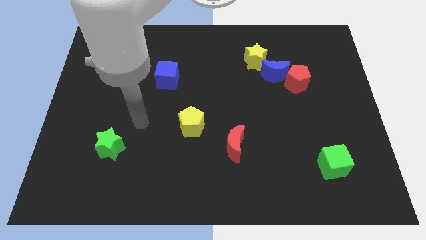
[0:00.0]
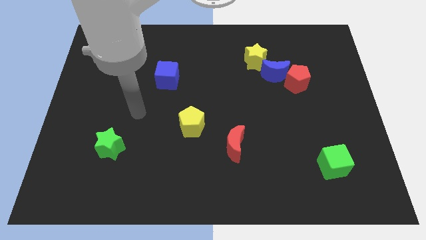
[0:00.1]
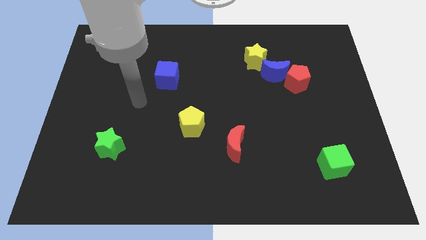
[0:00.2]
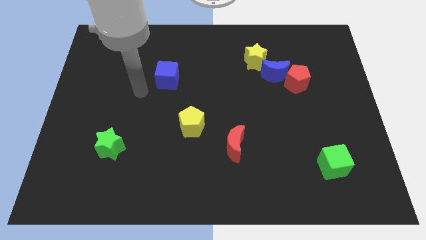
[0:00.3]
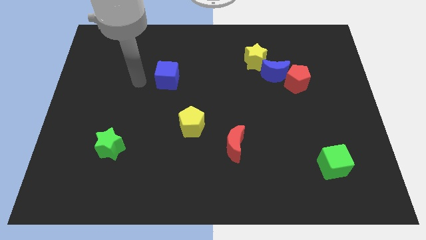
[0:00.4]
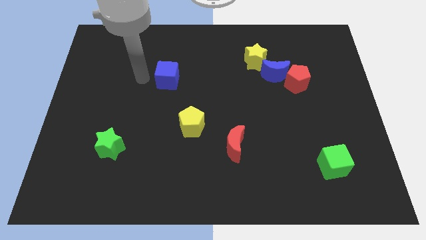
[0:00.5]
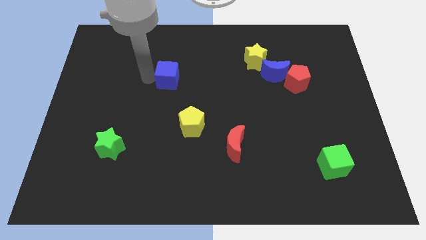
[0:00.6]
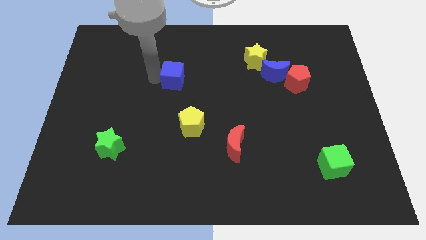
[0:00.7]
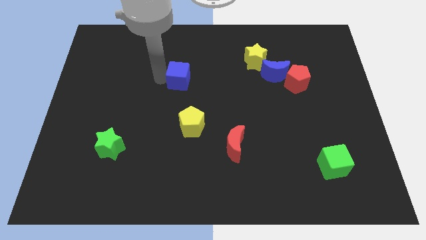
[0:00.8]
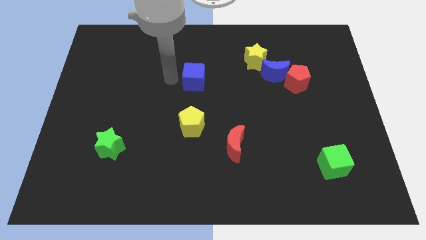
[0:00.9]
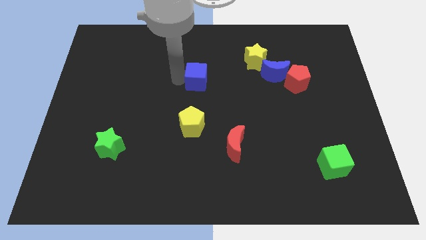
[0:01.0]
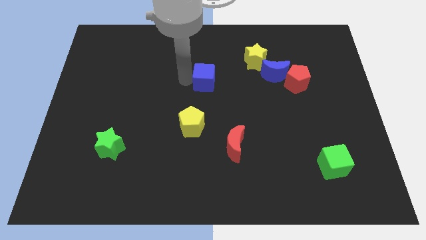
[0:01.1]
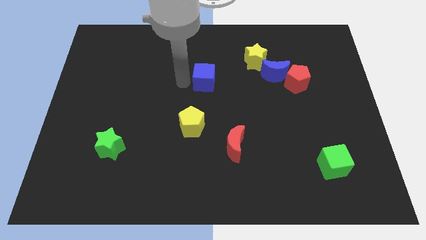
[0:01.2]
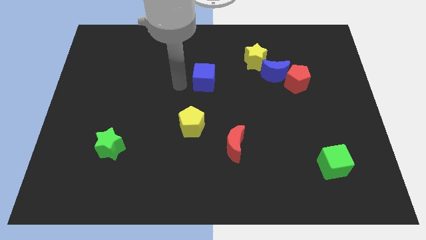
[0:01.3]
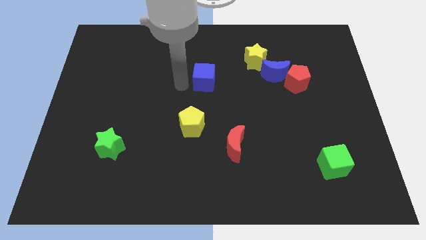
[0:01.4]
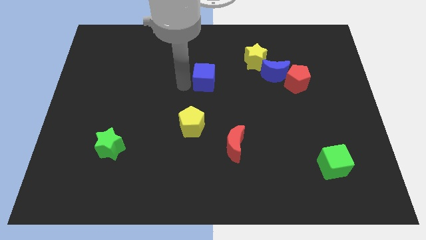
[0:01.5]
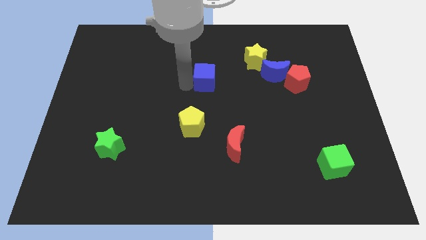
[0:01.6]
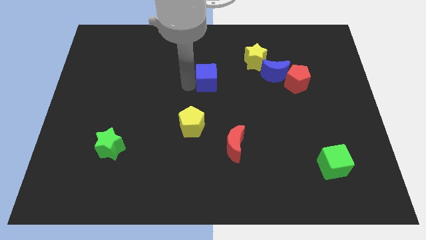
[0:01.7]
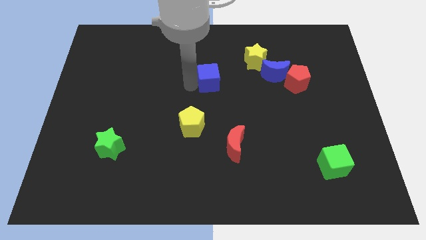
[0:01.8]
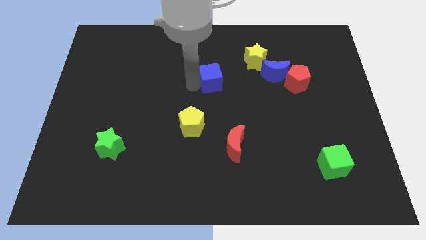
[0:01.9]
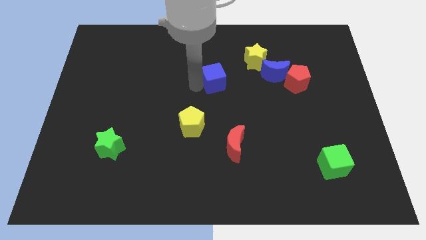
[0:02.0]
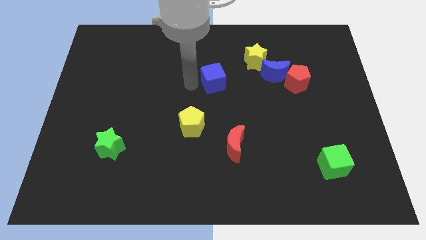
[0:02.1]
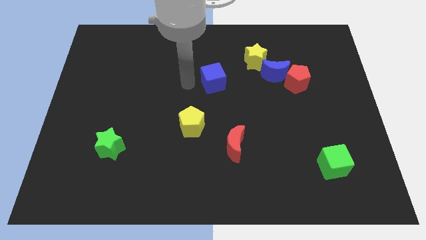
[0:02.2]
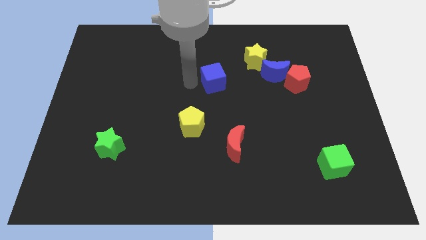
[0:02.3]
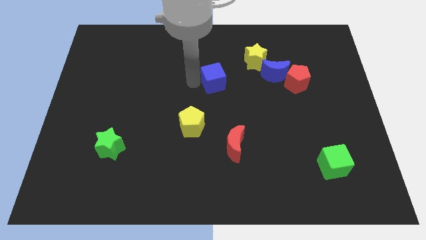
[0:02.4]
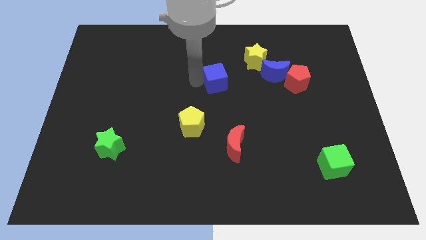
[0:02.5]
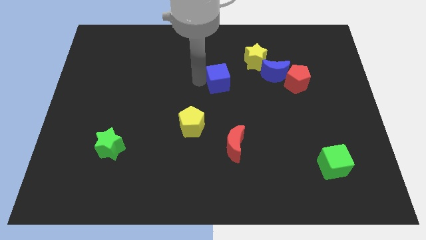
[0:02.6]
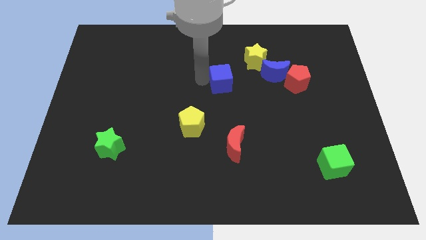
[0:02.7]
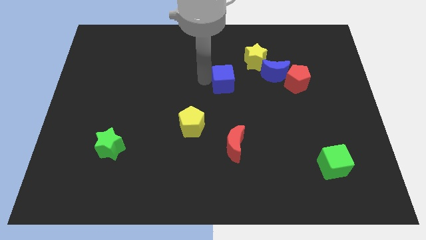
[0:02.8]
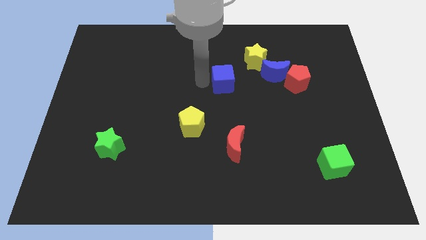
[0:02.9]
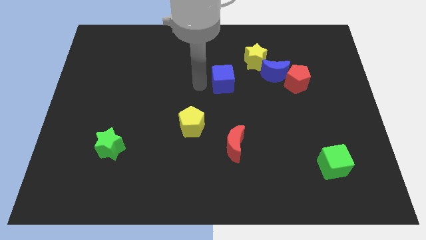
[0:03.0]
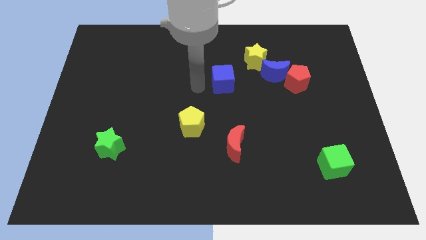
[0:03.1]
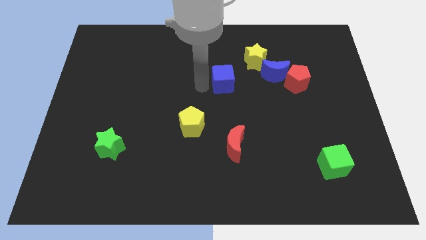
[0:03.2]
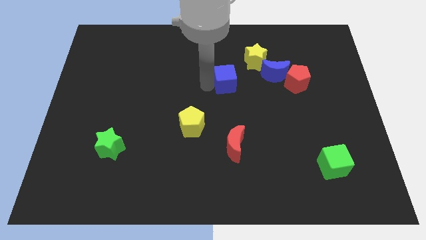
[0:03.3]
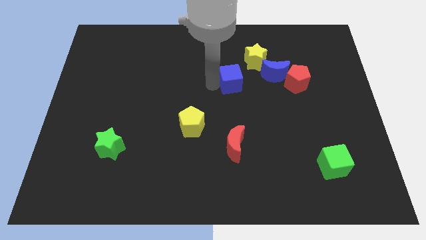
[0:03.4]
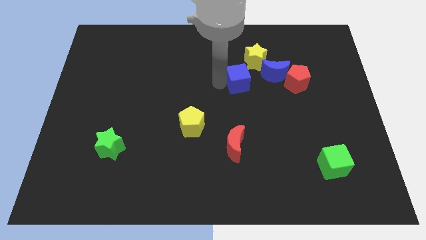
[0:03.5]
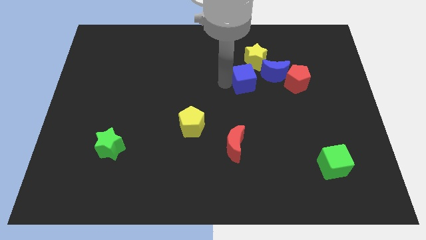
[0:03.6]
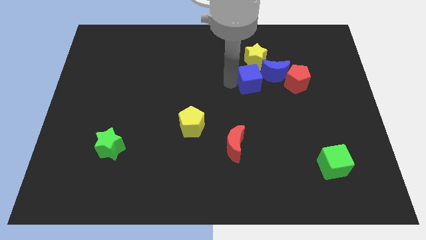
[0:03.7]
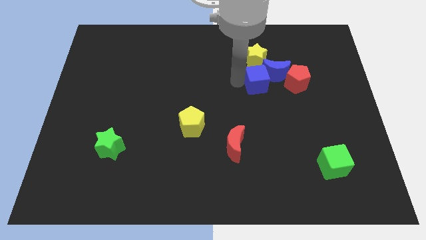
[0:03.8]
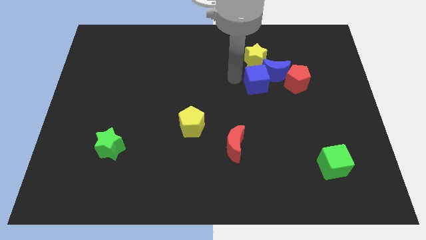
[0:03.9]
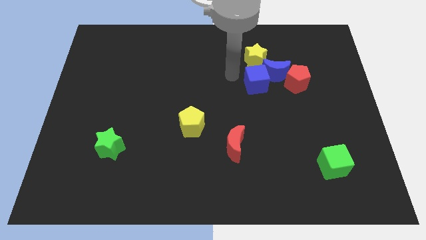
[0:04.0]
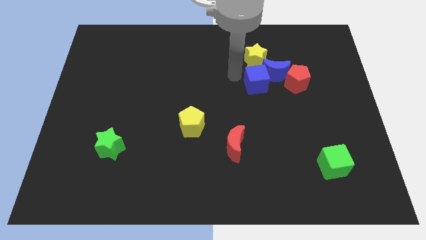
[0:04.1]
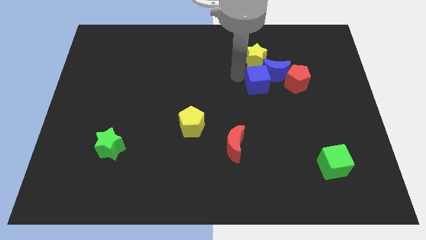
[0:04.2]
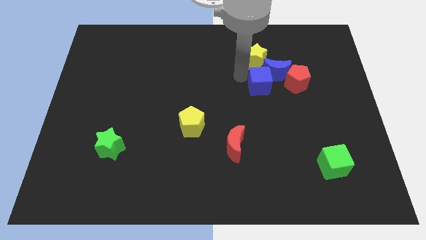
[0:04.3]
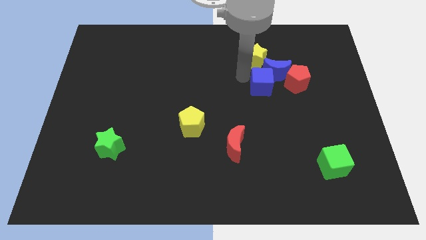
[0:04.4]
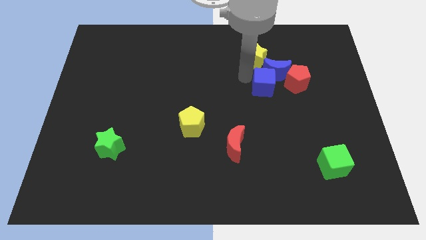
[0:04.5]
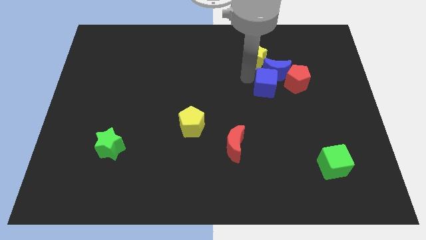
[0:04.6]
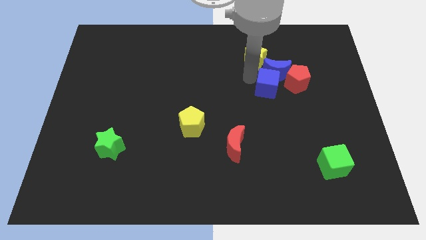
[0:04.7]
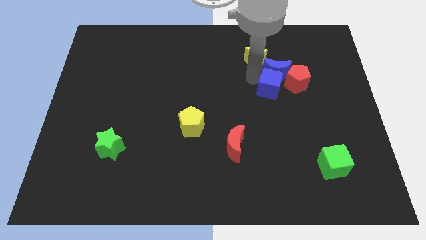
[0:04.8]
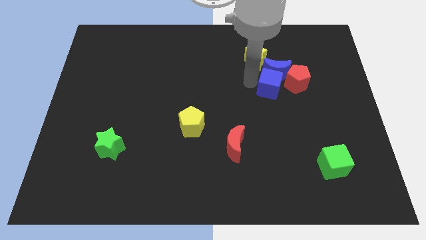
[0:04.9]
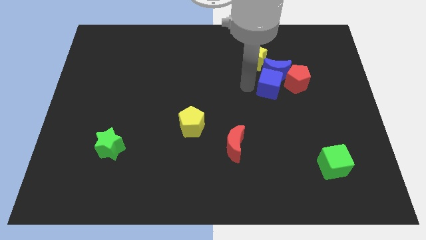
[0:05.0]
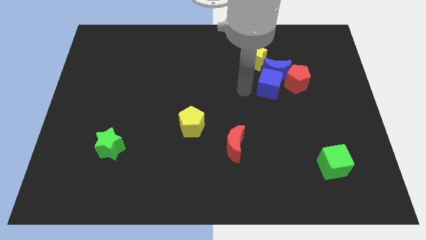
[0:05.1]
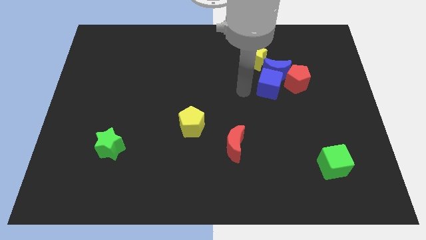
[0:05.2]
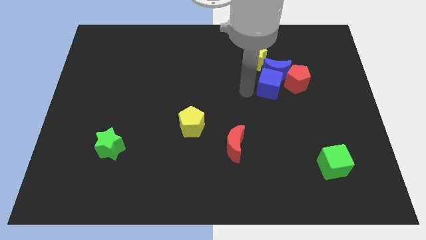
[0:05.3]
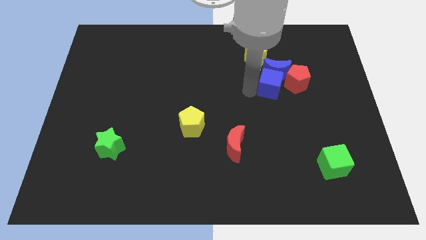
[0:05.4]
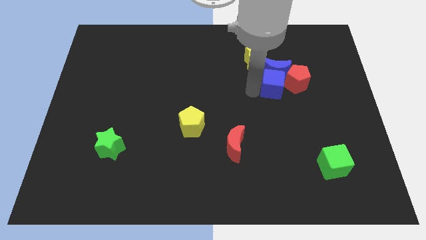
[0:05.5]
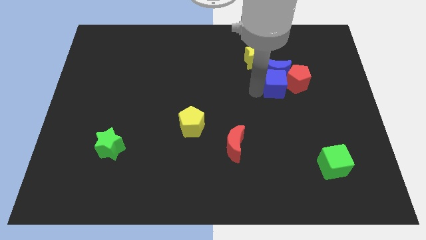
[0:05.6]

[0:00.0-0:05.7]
slide the blue cube next to the red pentagon

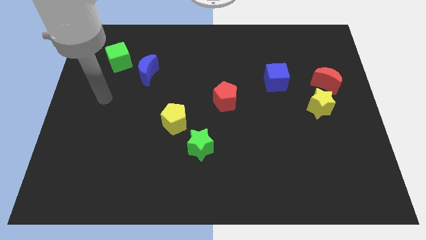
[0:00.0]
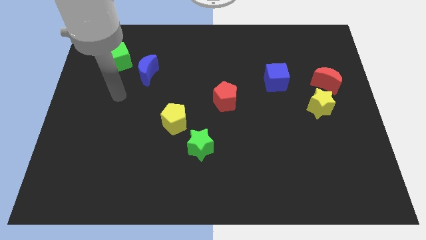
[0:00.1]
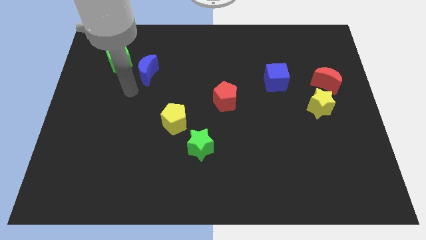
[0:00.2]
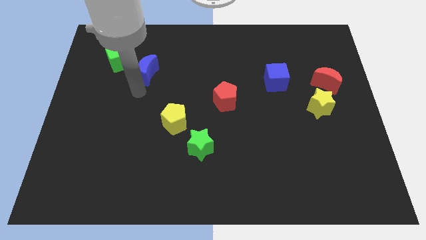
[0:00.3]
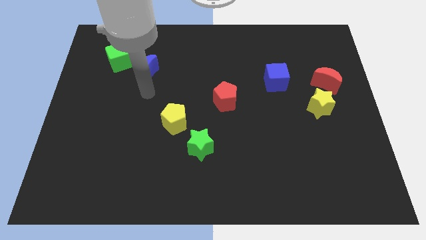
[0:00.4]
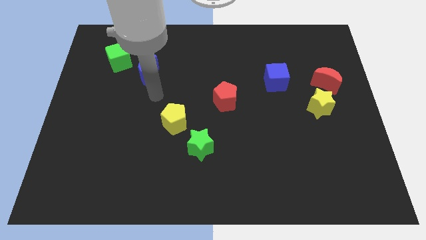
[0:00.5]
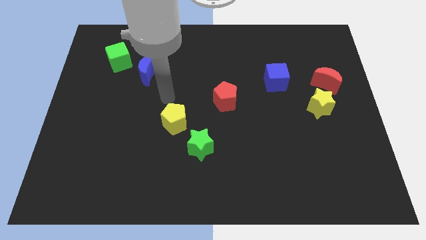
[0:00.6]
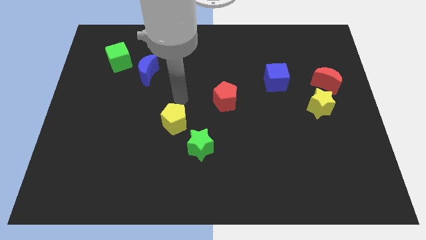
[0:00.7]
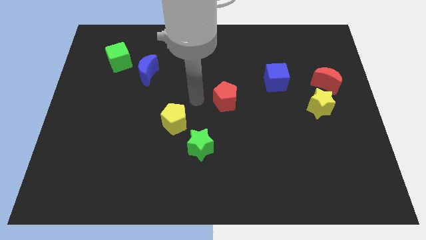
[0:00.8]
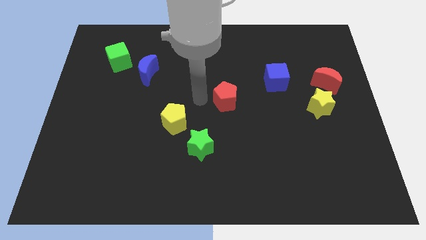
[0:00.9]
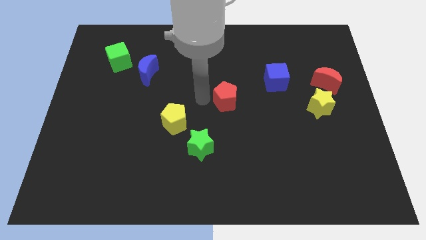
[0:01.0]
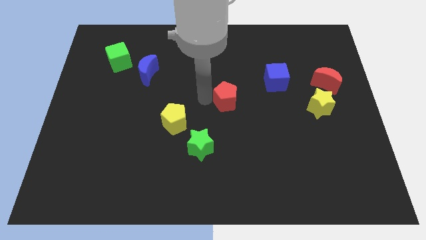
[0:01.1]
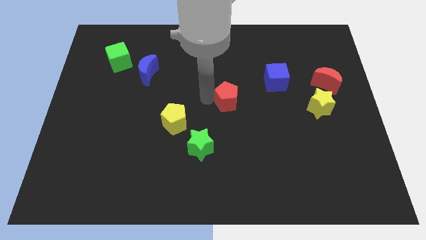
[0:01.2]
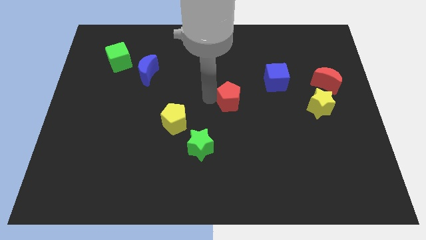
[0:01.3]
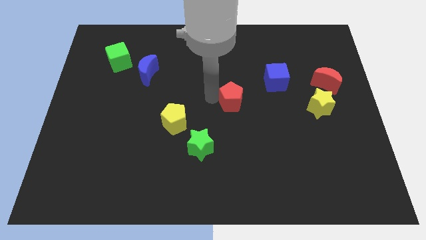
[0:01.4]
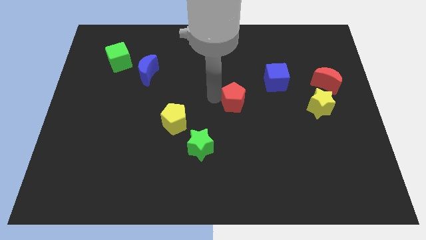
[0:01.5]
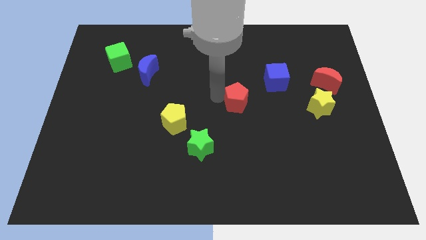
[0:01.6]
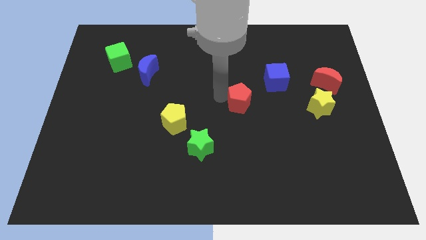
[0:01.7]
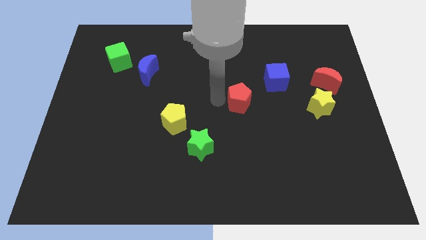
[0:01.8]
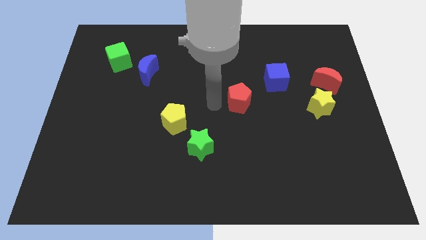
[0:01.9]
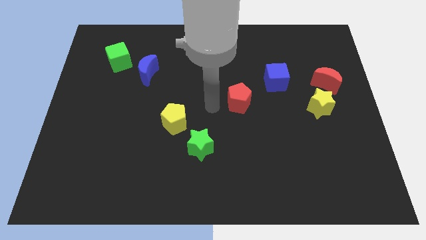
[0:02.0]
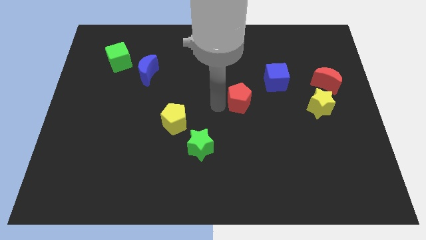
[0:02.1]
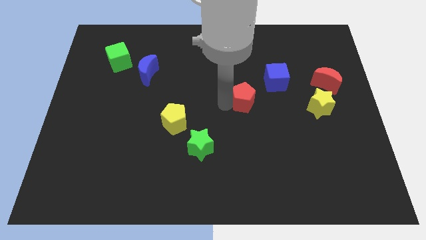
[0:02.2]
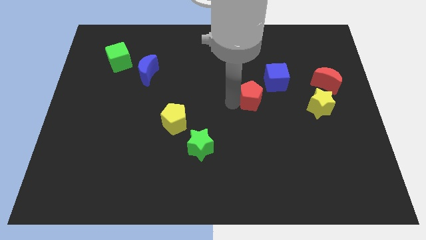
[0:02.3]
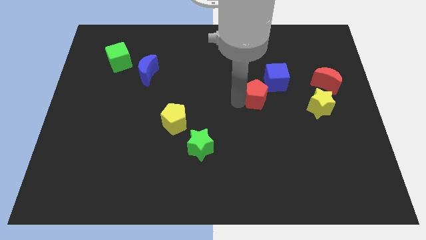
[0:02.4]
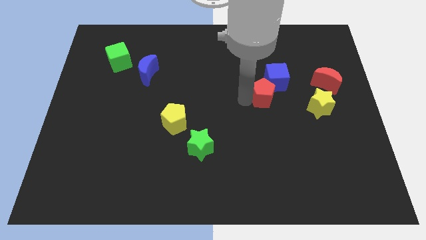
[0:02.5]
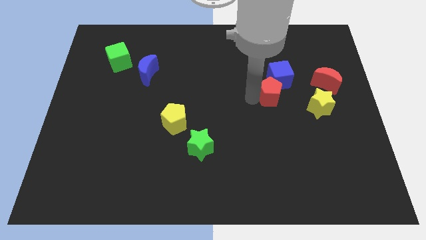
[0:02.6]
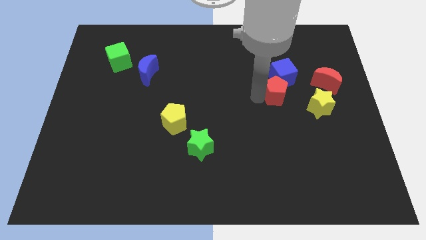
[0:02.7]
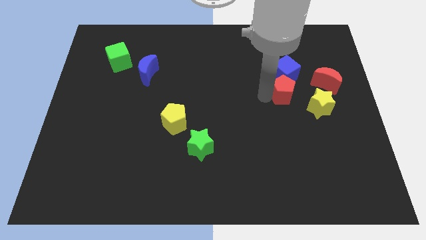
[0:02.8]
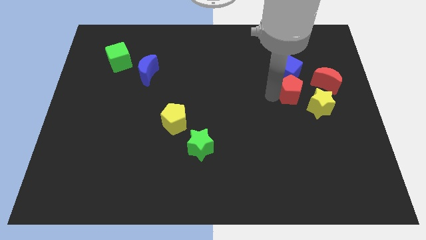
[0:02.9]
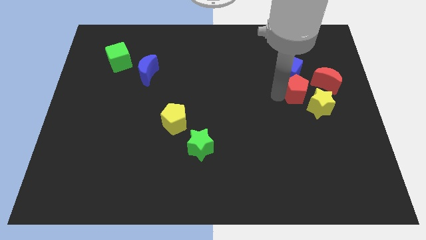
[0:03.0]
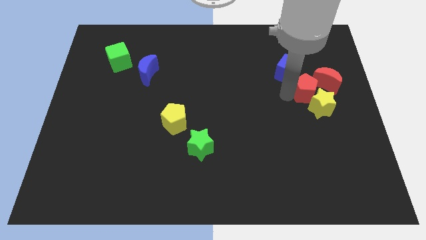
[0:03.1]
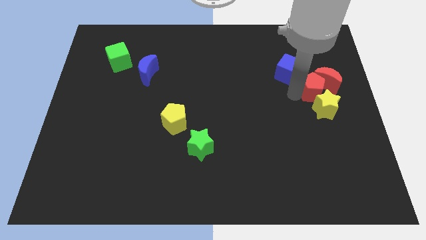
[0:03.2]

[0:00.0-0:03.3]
slide the red pentagon to the red moon
